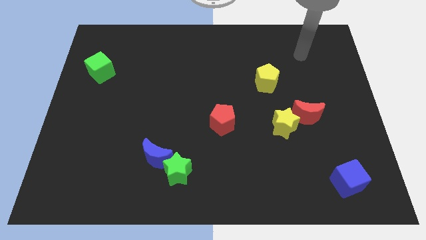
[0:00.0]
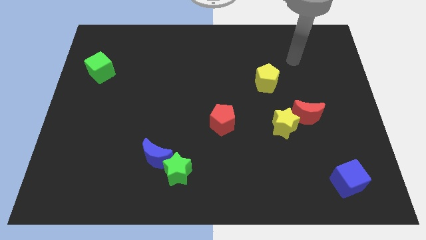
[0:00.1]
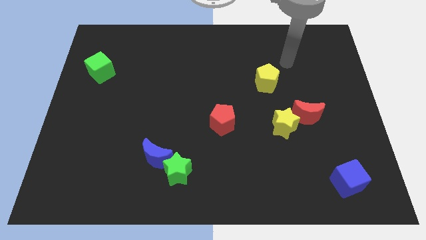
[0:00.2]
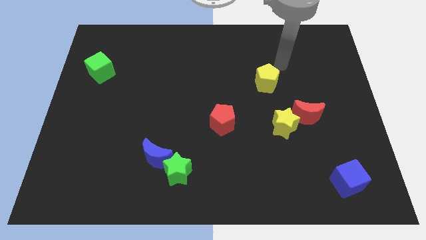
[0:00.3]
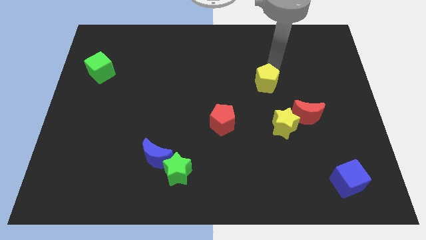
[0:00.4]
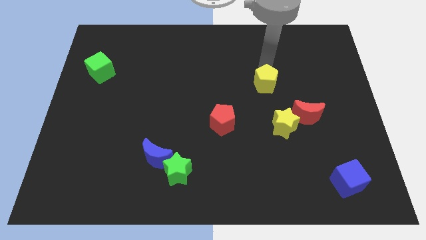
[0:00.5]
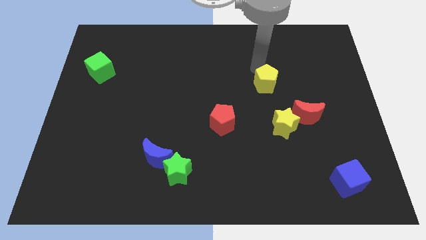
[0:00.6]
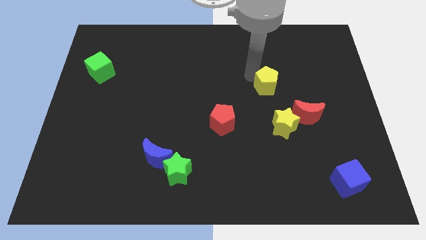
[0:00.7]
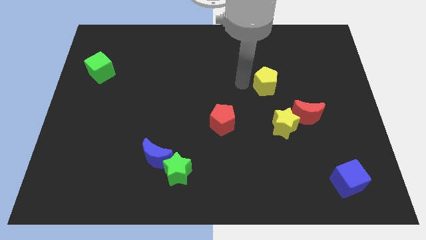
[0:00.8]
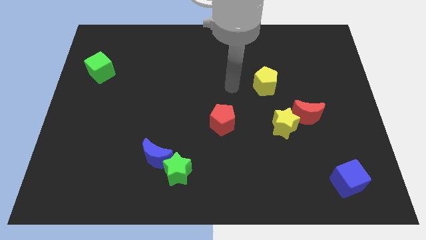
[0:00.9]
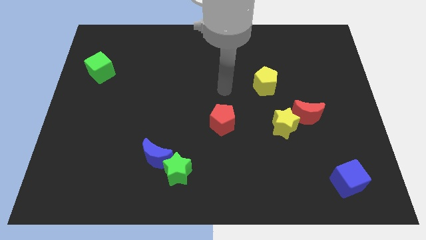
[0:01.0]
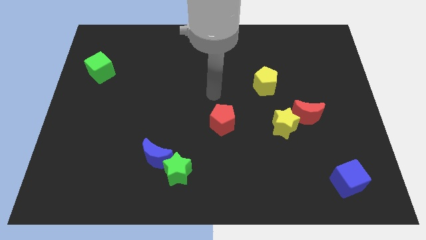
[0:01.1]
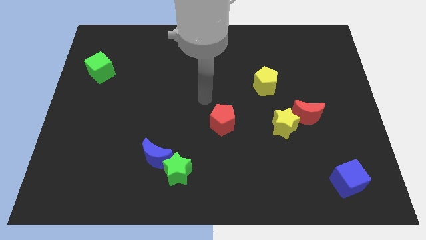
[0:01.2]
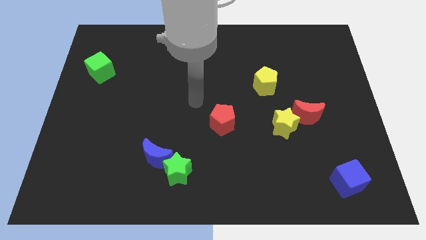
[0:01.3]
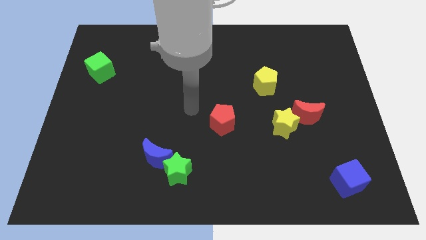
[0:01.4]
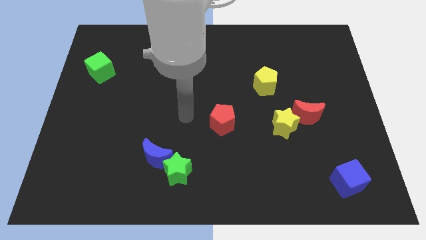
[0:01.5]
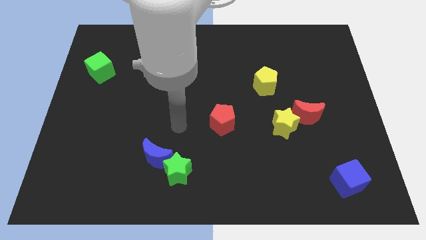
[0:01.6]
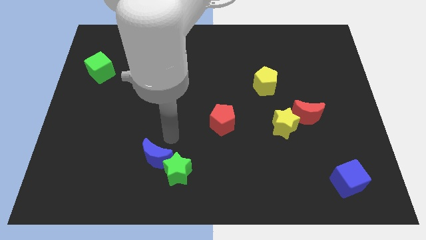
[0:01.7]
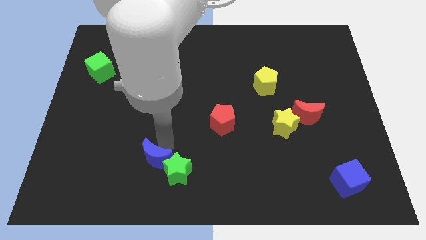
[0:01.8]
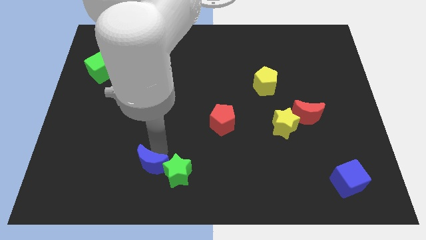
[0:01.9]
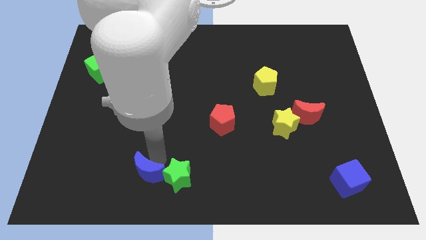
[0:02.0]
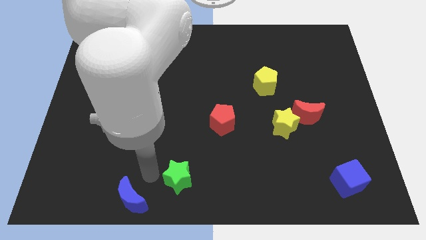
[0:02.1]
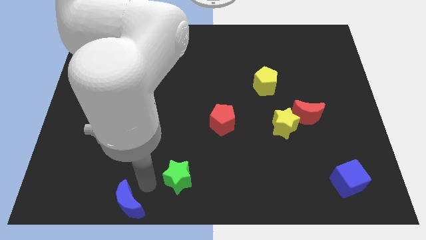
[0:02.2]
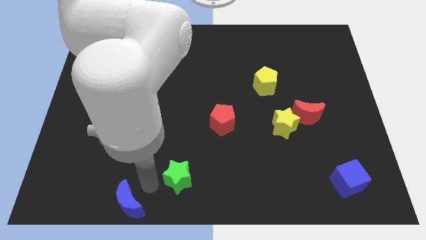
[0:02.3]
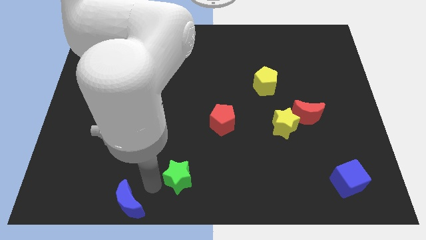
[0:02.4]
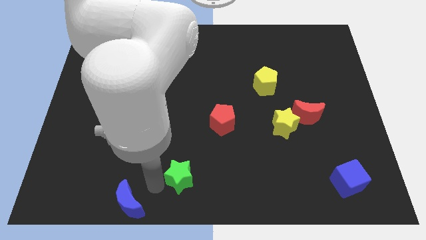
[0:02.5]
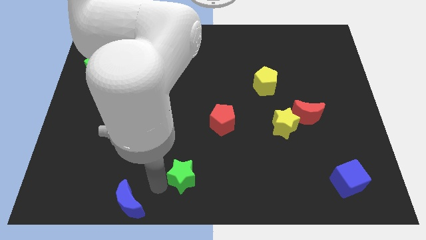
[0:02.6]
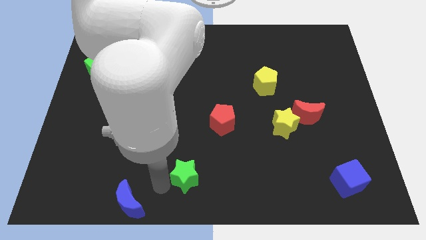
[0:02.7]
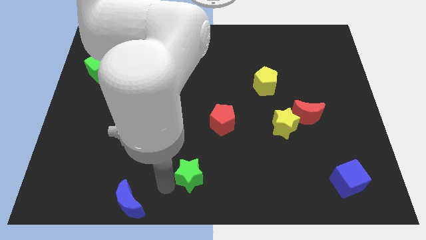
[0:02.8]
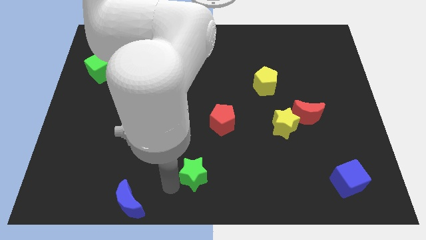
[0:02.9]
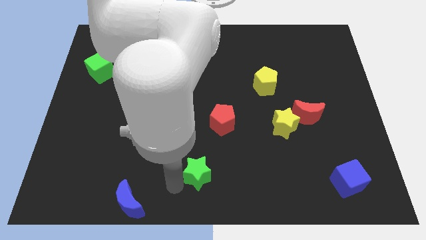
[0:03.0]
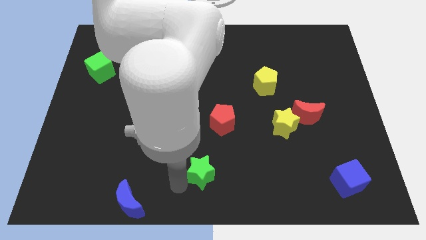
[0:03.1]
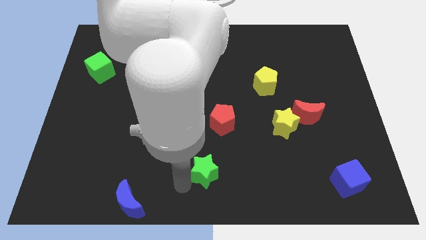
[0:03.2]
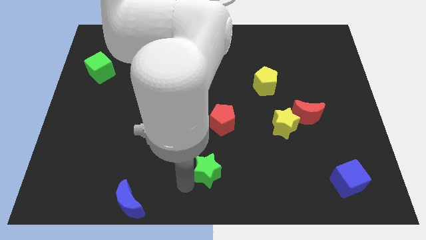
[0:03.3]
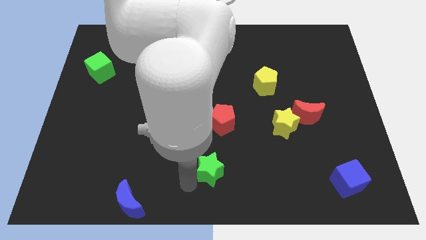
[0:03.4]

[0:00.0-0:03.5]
slide the green star right slightly

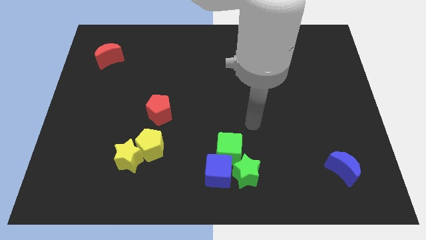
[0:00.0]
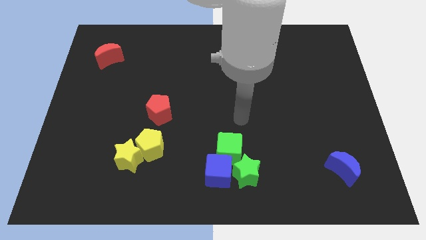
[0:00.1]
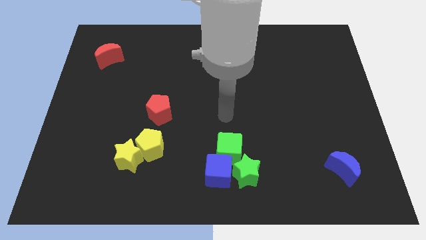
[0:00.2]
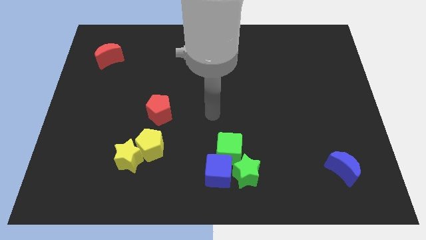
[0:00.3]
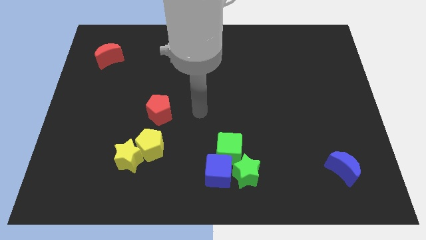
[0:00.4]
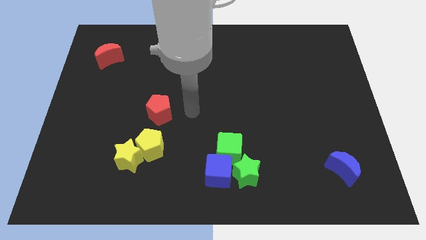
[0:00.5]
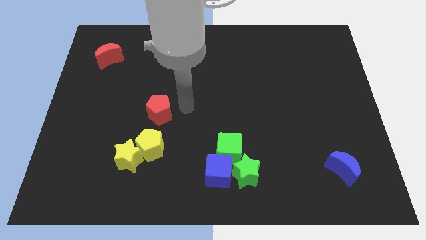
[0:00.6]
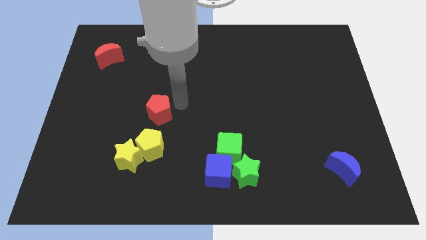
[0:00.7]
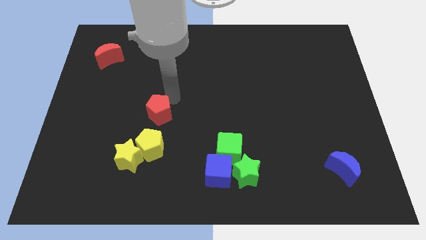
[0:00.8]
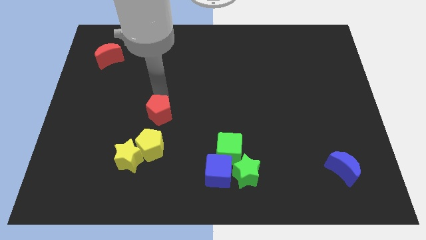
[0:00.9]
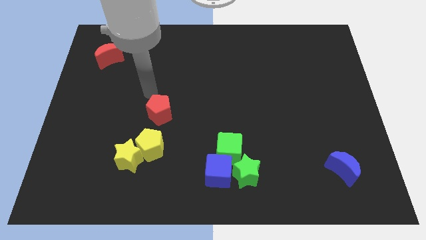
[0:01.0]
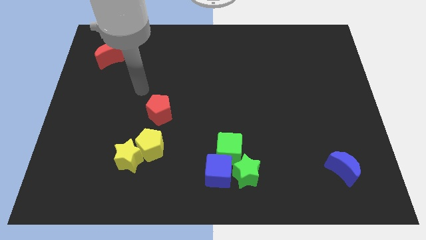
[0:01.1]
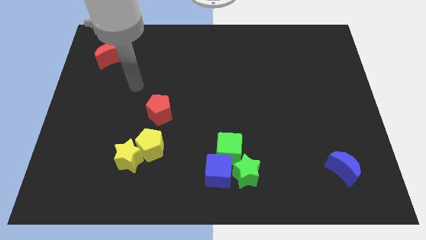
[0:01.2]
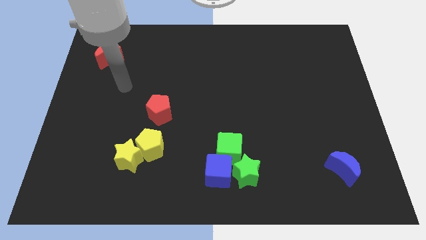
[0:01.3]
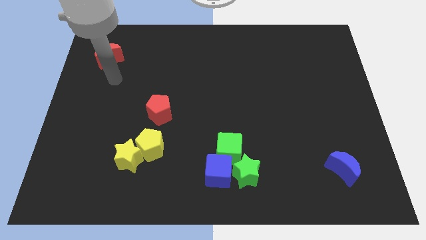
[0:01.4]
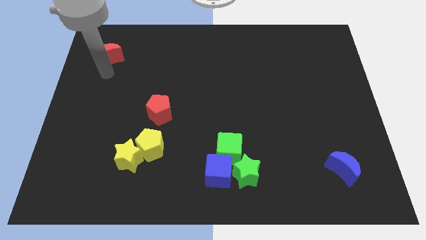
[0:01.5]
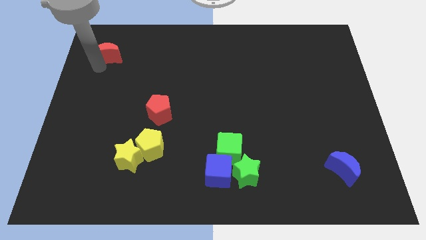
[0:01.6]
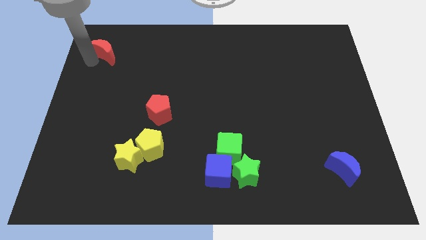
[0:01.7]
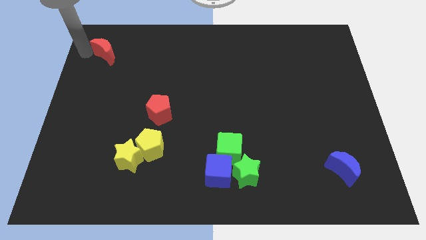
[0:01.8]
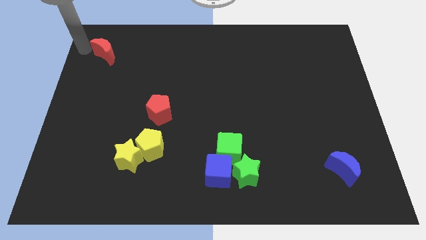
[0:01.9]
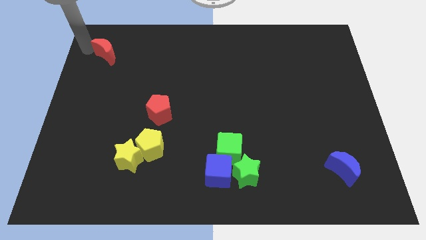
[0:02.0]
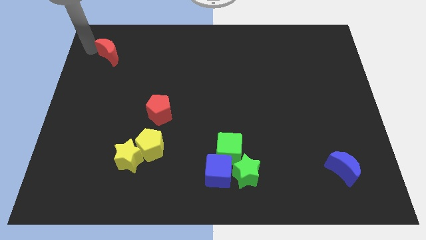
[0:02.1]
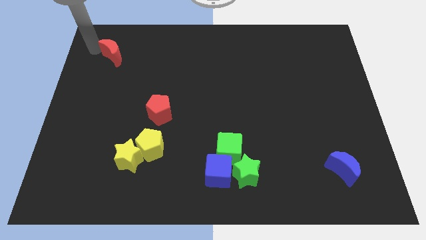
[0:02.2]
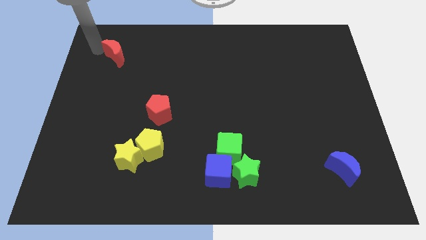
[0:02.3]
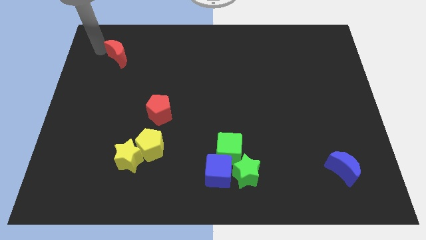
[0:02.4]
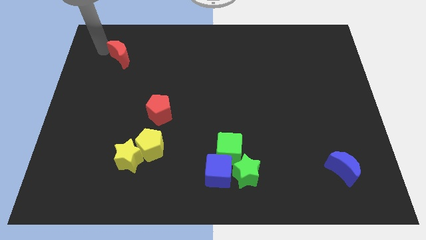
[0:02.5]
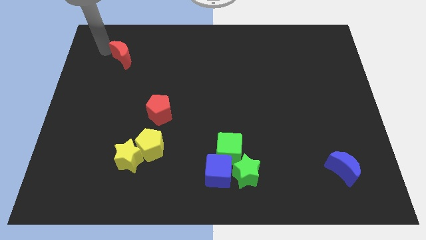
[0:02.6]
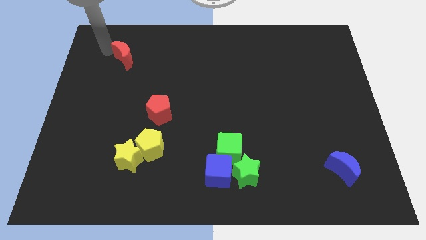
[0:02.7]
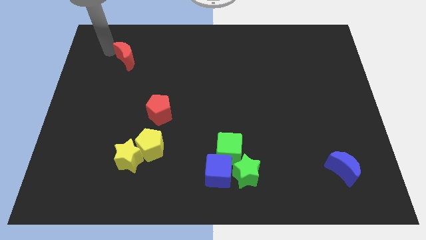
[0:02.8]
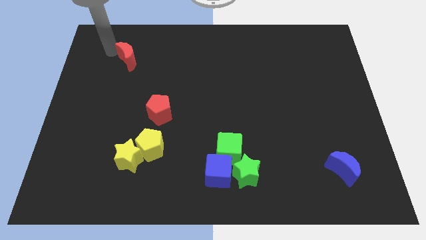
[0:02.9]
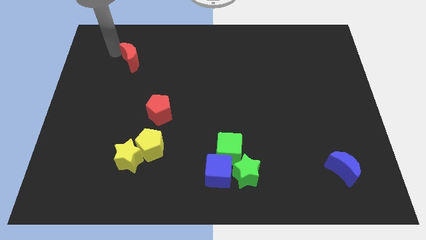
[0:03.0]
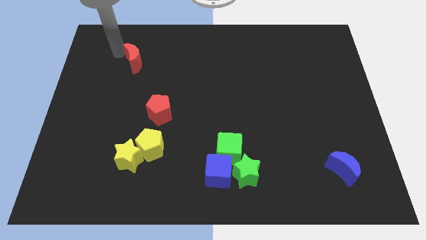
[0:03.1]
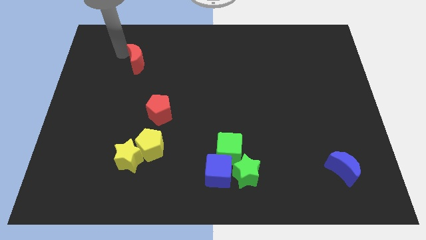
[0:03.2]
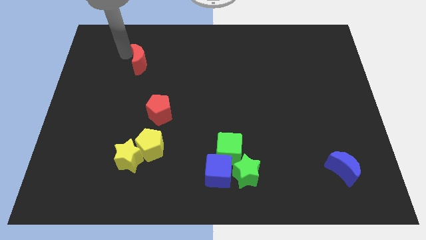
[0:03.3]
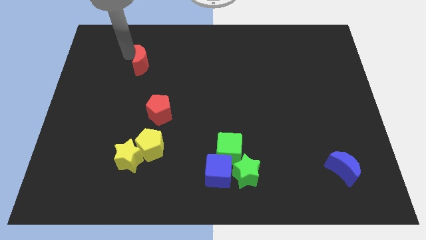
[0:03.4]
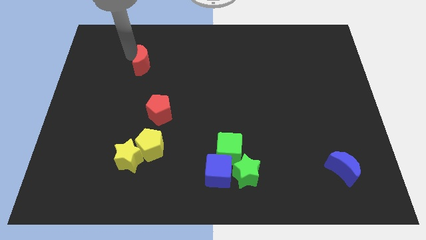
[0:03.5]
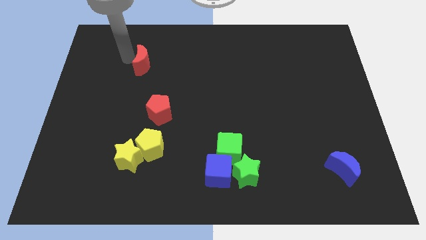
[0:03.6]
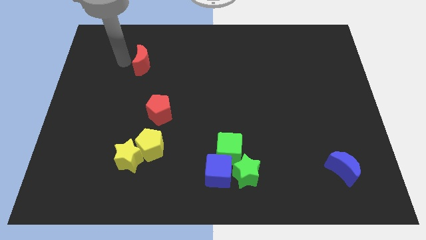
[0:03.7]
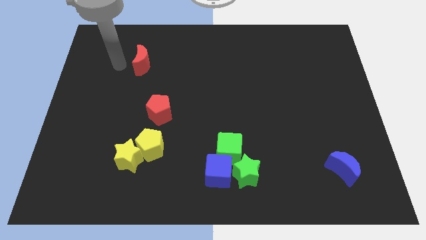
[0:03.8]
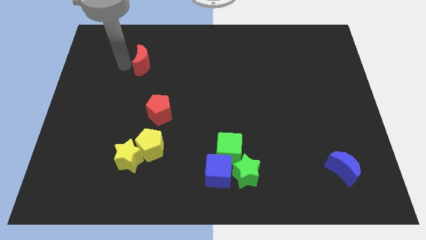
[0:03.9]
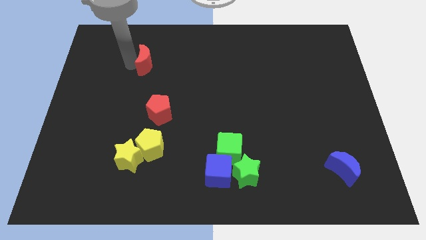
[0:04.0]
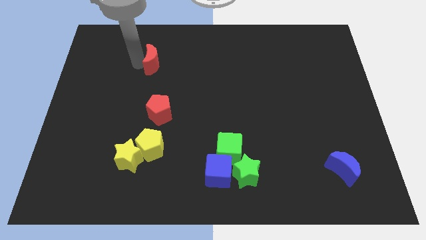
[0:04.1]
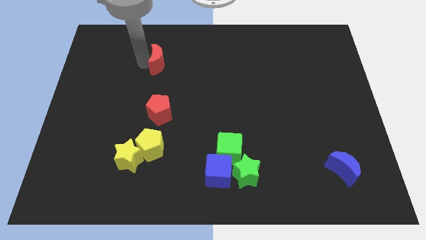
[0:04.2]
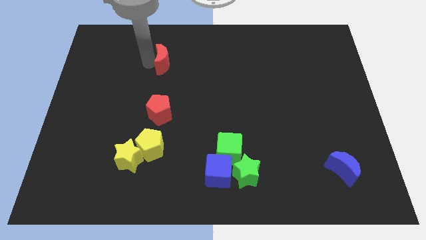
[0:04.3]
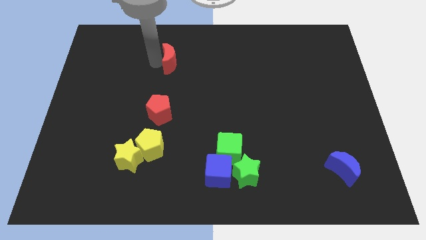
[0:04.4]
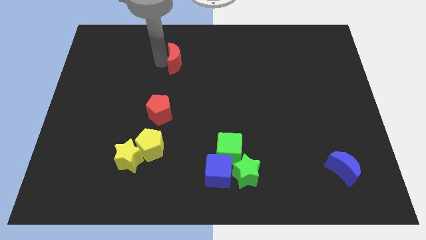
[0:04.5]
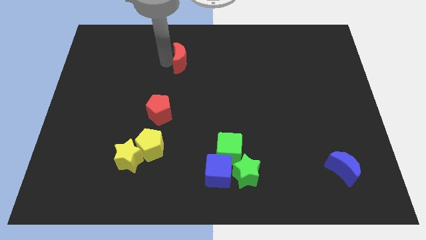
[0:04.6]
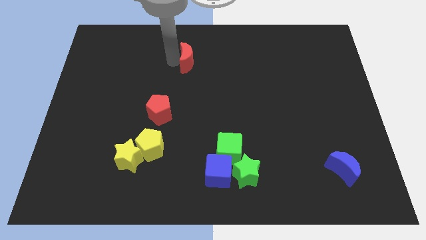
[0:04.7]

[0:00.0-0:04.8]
slide the red moon to the right
